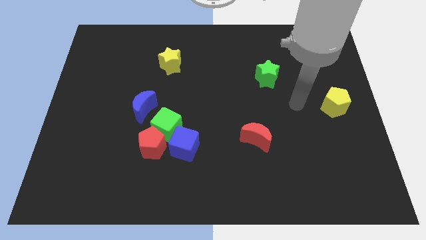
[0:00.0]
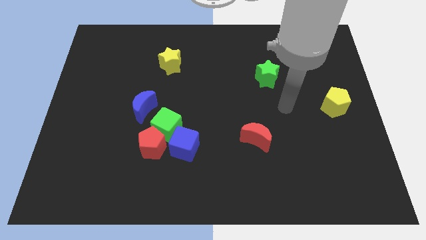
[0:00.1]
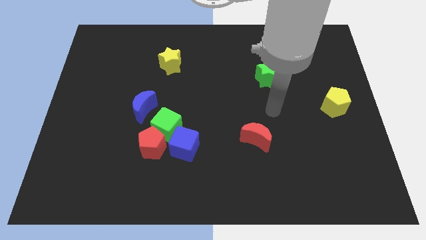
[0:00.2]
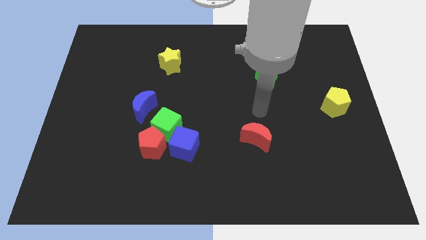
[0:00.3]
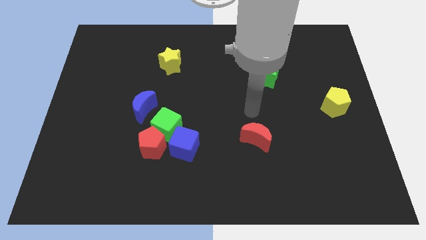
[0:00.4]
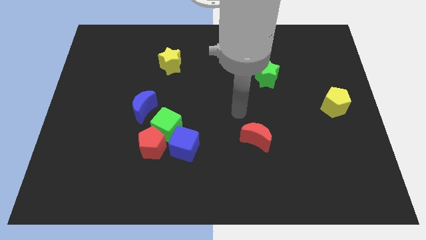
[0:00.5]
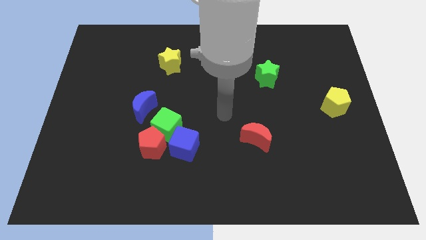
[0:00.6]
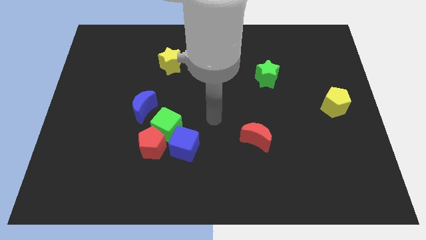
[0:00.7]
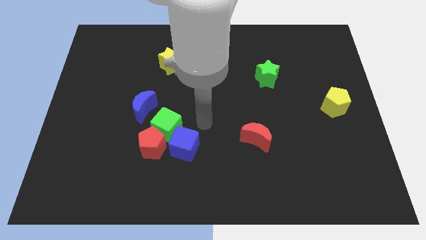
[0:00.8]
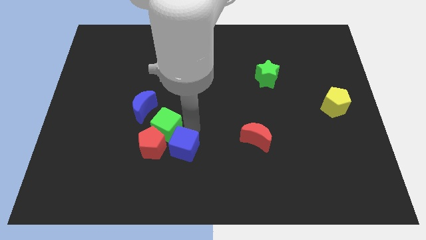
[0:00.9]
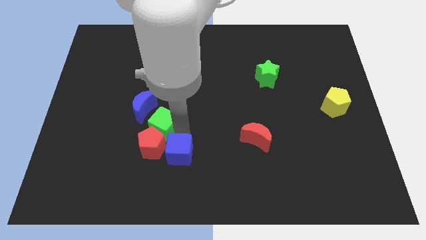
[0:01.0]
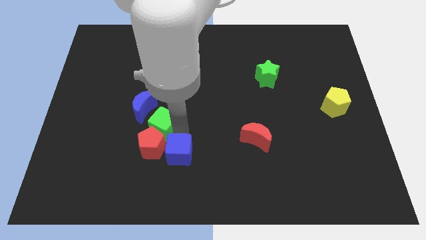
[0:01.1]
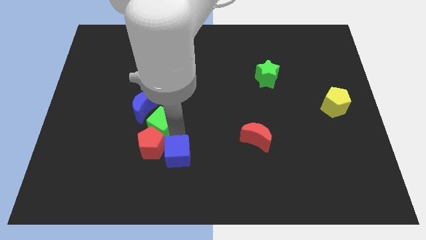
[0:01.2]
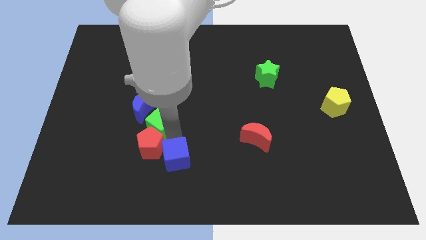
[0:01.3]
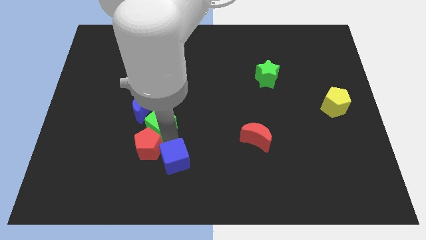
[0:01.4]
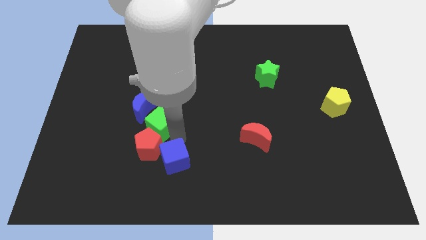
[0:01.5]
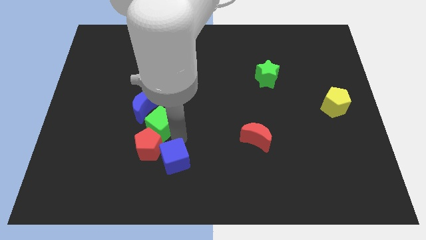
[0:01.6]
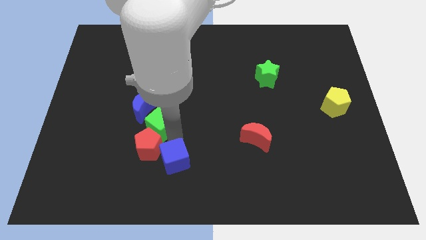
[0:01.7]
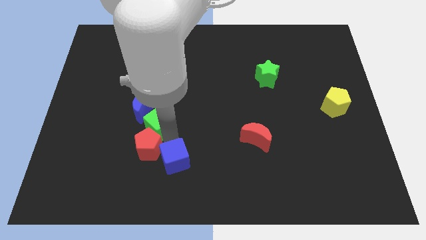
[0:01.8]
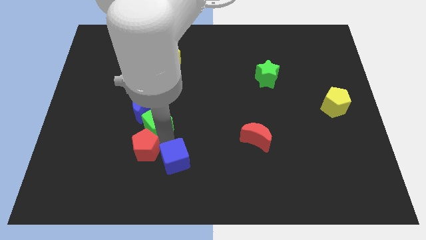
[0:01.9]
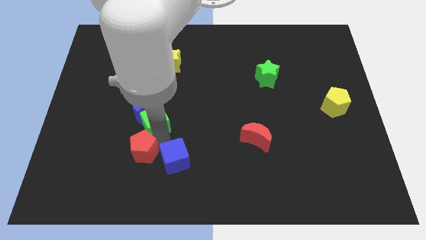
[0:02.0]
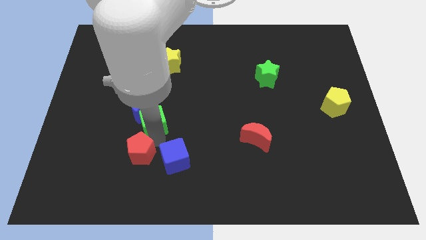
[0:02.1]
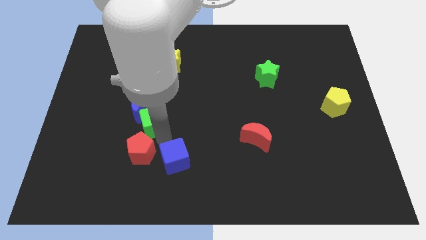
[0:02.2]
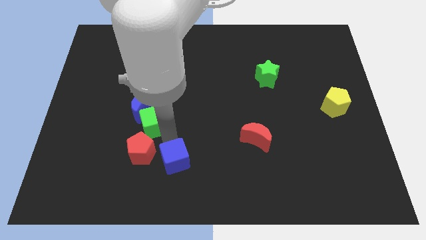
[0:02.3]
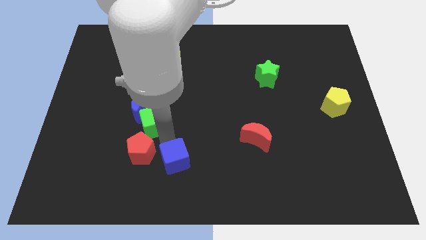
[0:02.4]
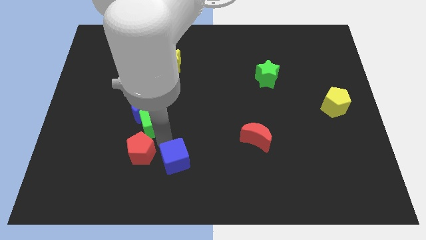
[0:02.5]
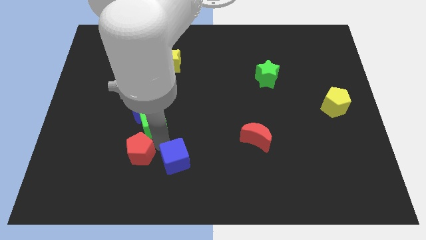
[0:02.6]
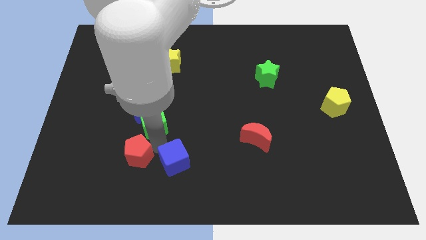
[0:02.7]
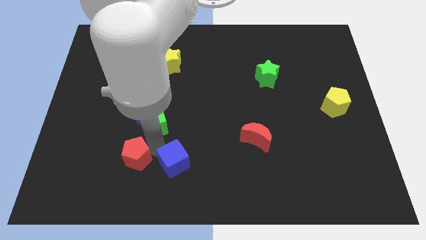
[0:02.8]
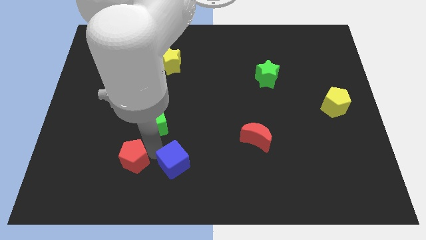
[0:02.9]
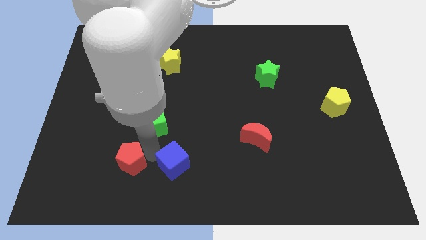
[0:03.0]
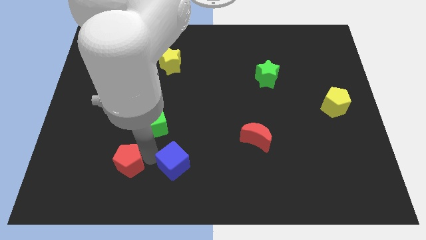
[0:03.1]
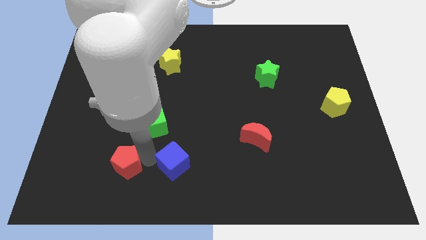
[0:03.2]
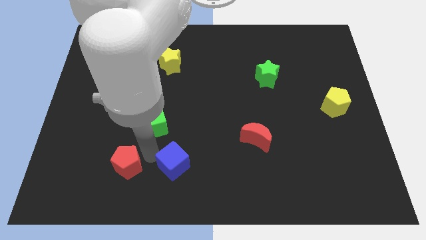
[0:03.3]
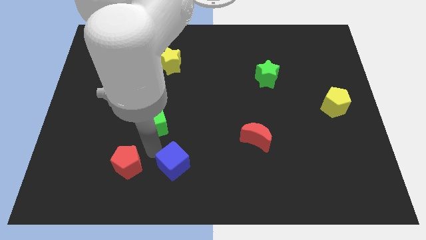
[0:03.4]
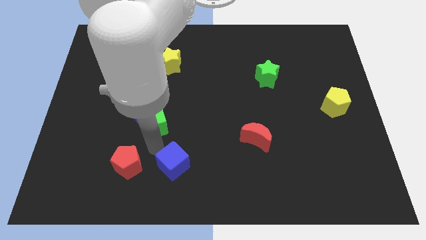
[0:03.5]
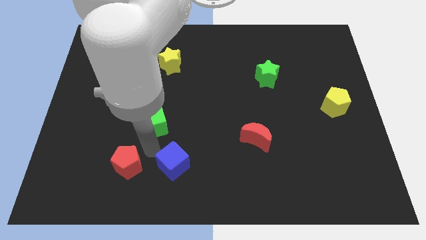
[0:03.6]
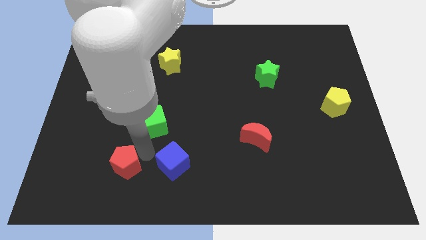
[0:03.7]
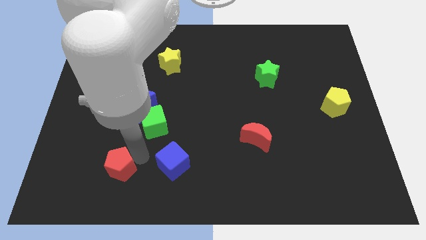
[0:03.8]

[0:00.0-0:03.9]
pull the red pentagon apart from the green cube and blue cube

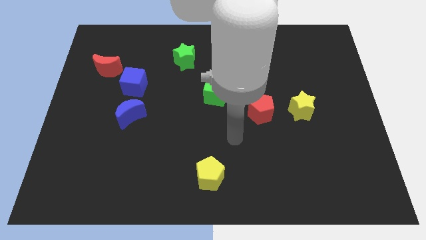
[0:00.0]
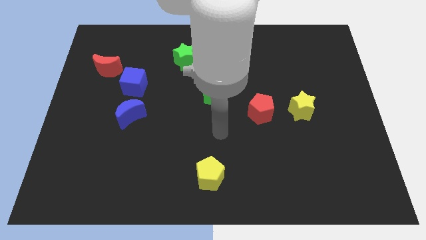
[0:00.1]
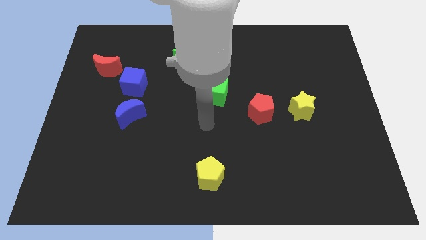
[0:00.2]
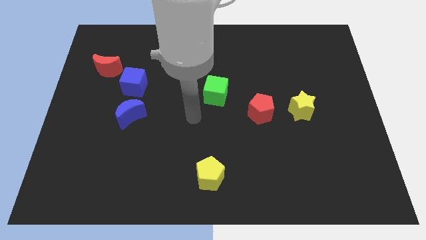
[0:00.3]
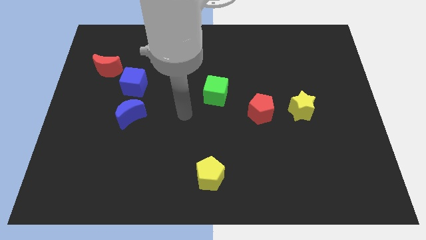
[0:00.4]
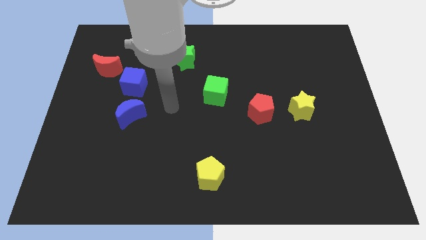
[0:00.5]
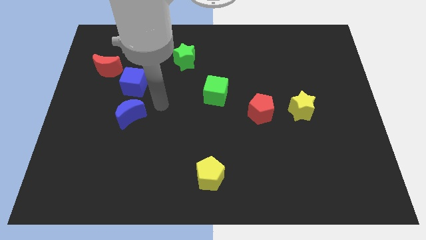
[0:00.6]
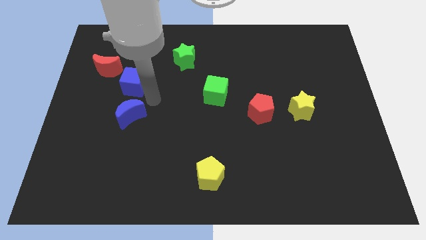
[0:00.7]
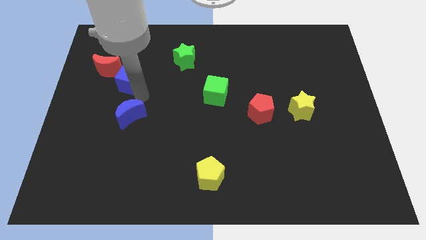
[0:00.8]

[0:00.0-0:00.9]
move the blue moon away from the blue cube

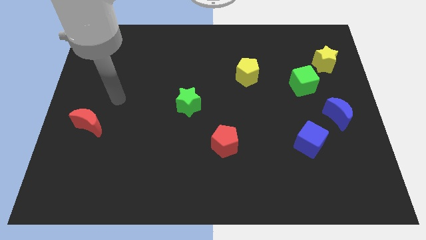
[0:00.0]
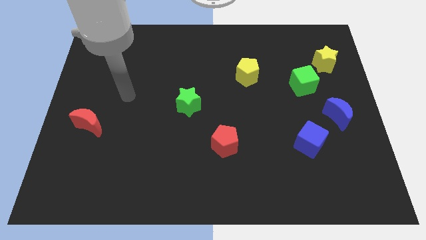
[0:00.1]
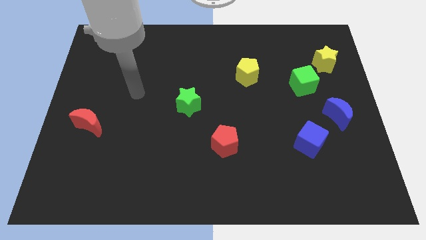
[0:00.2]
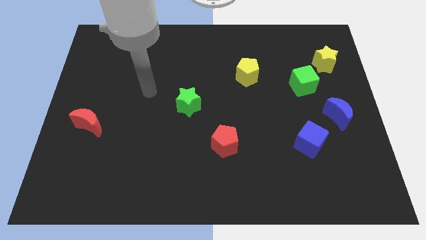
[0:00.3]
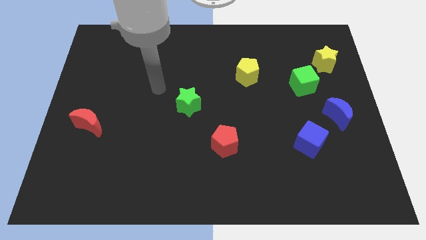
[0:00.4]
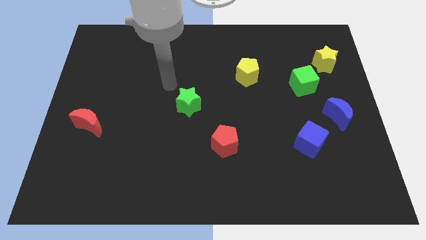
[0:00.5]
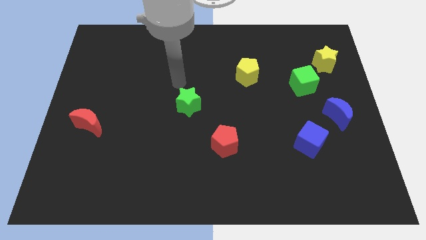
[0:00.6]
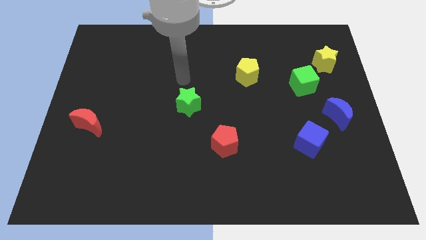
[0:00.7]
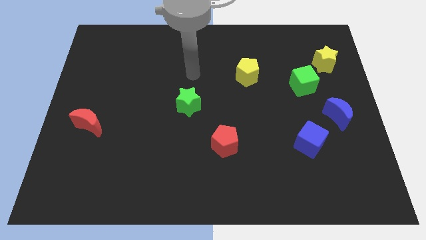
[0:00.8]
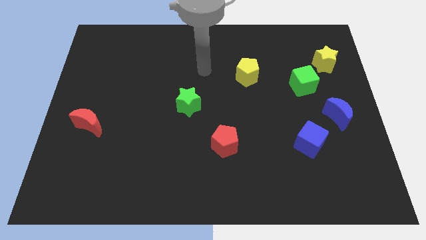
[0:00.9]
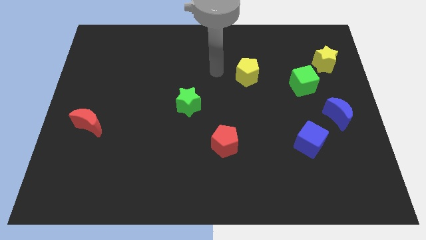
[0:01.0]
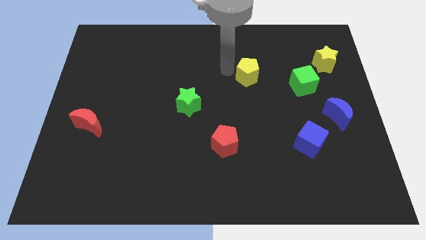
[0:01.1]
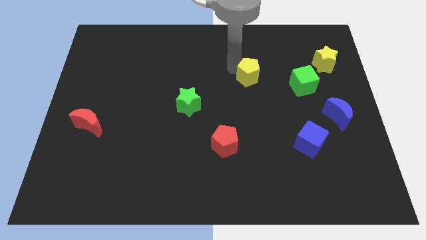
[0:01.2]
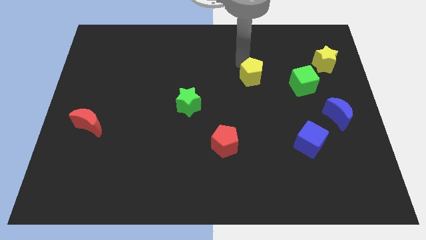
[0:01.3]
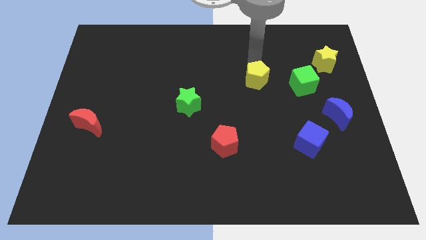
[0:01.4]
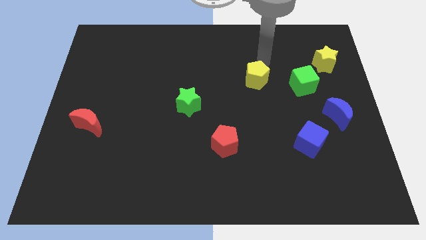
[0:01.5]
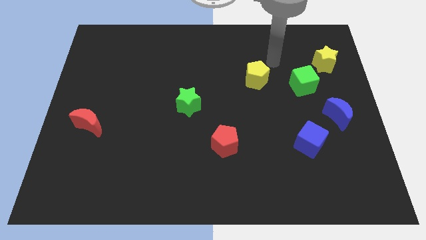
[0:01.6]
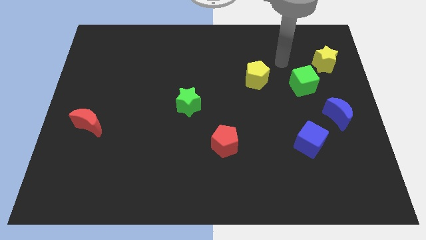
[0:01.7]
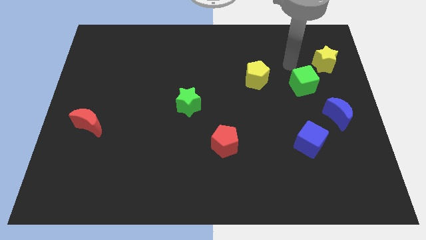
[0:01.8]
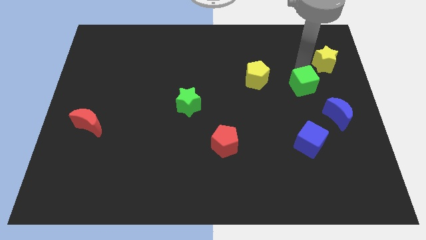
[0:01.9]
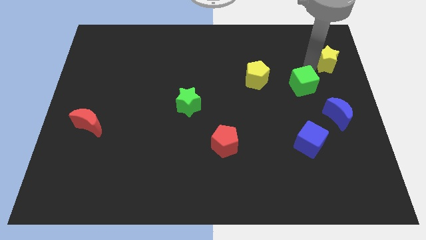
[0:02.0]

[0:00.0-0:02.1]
move the green cube away from the yellow star

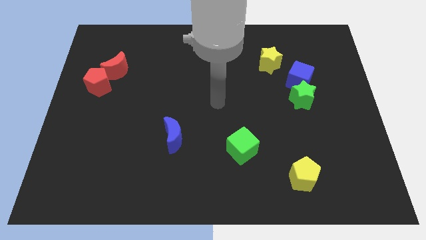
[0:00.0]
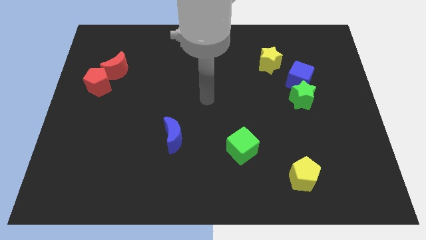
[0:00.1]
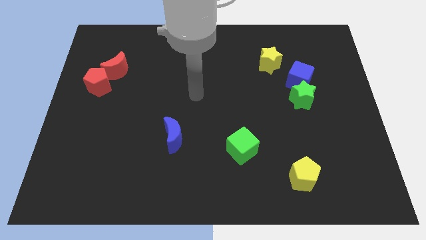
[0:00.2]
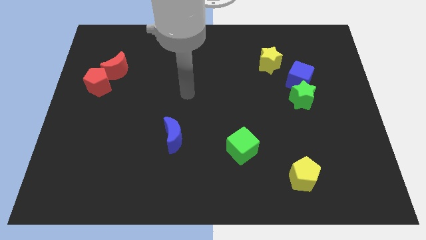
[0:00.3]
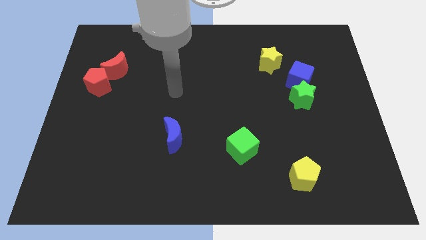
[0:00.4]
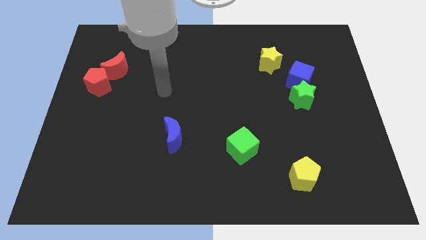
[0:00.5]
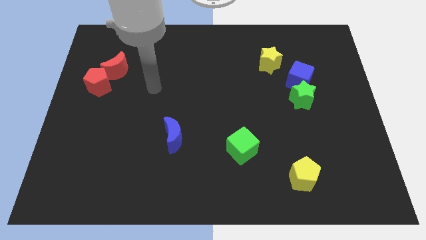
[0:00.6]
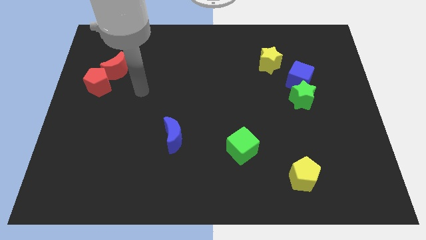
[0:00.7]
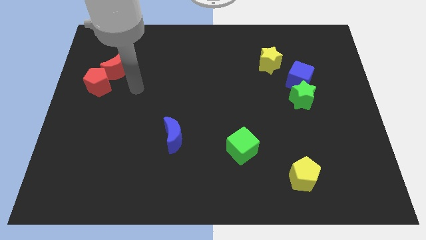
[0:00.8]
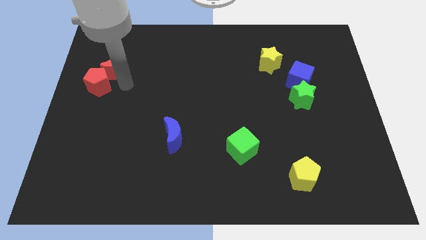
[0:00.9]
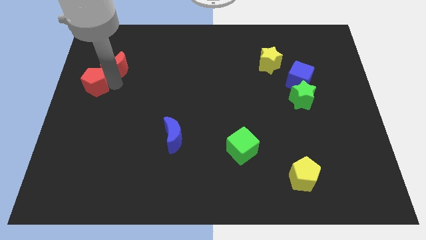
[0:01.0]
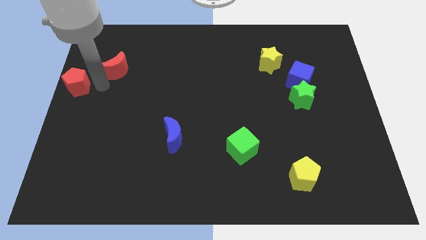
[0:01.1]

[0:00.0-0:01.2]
move the red moon away from the red pentagon

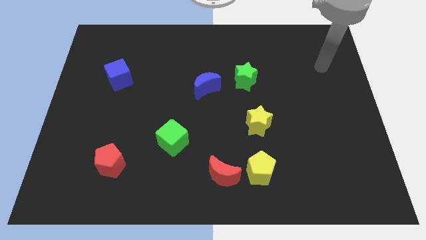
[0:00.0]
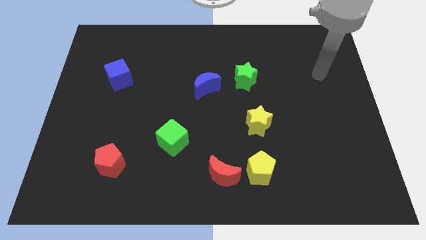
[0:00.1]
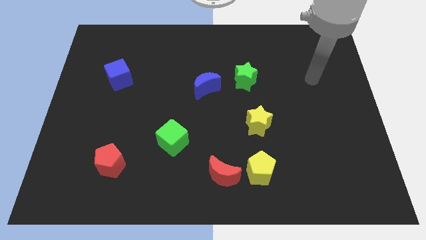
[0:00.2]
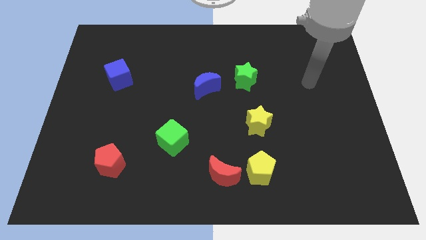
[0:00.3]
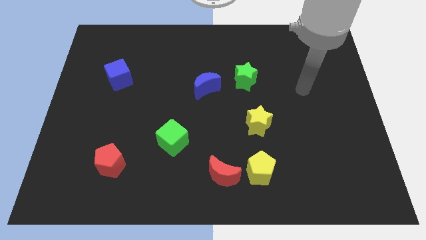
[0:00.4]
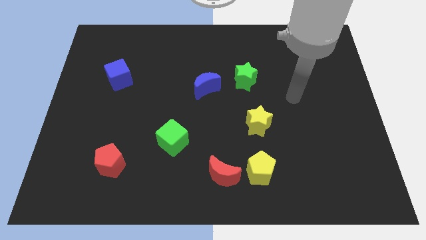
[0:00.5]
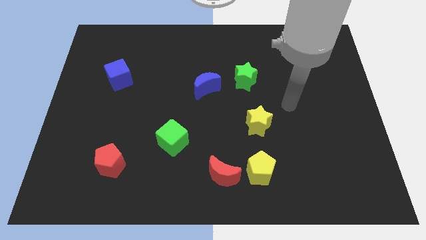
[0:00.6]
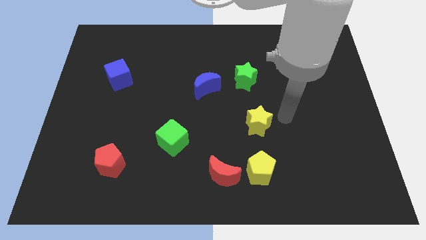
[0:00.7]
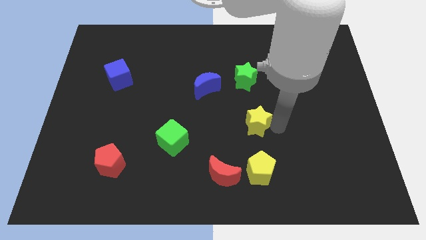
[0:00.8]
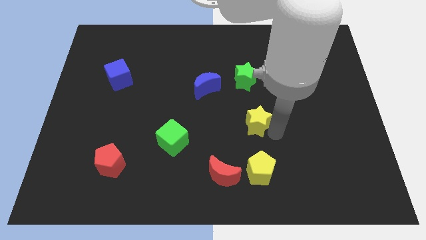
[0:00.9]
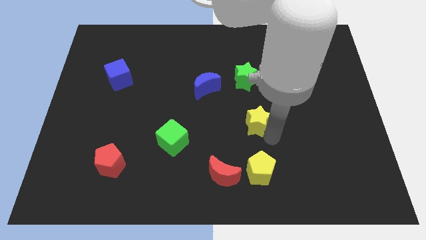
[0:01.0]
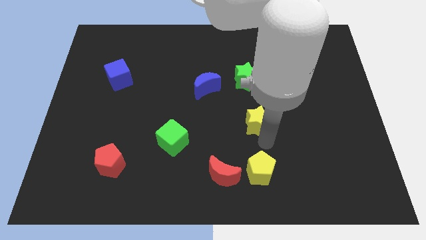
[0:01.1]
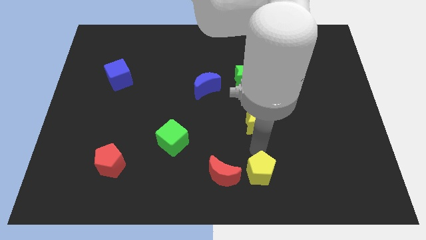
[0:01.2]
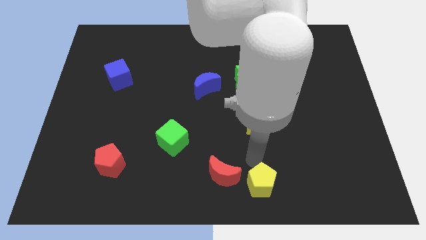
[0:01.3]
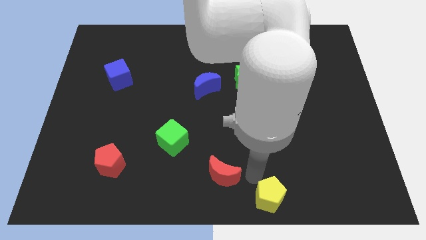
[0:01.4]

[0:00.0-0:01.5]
pull the red moon apart from the yellow pentagon
